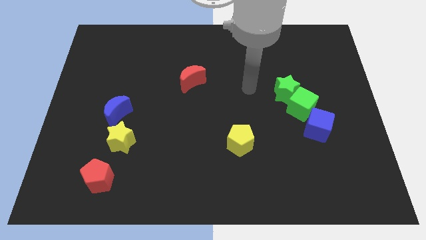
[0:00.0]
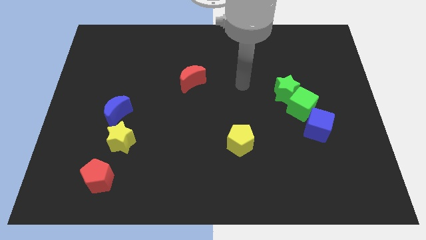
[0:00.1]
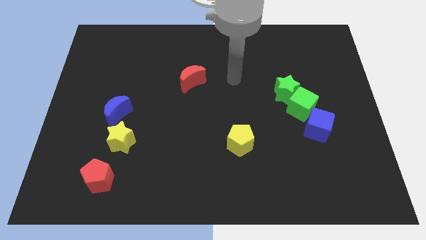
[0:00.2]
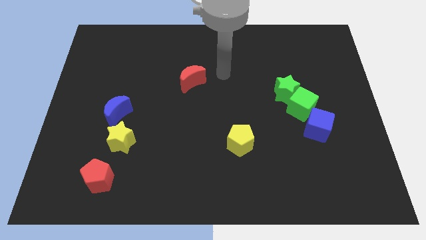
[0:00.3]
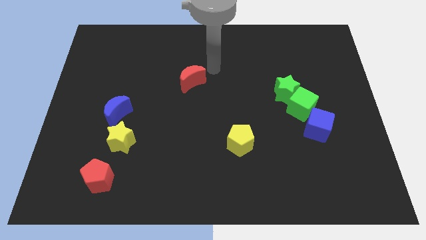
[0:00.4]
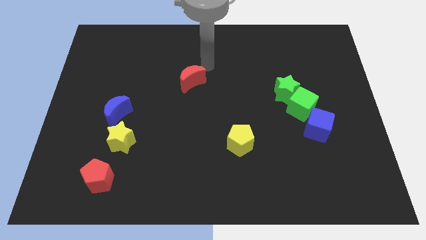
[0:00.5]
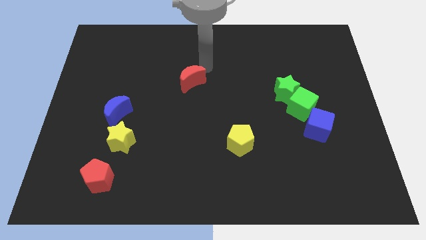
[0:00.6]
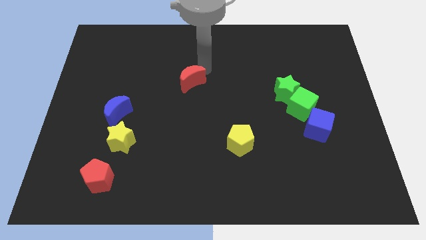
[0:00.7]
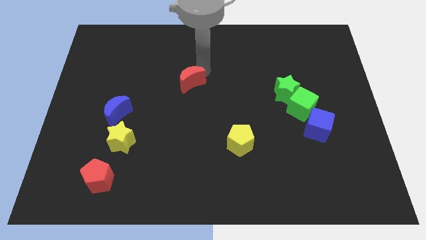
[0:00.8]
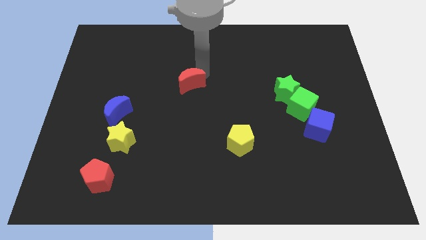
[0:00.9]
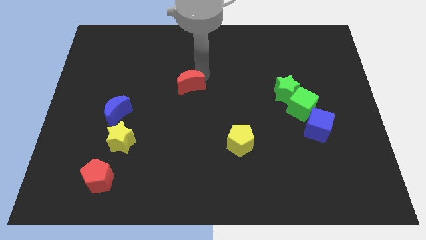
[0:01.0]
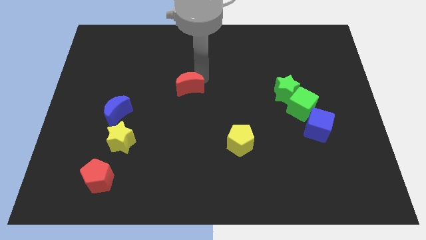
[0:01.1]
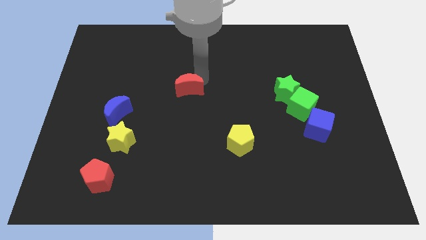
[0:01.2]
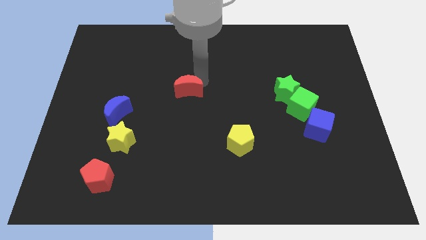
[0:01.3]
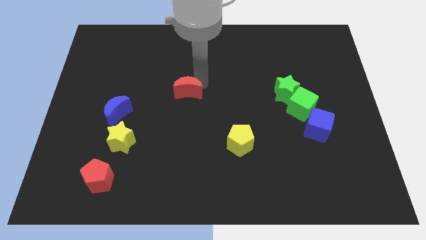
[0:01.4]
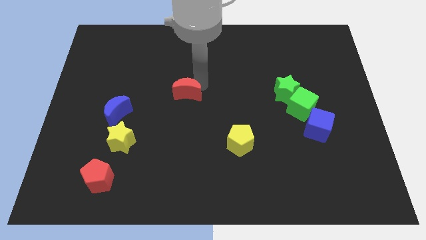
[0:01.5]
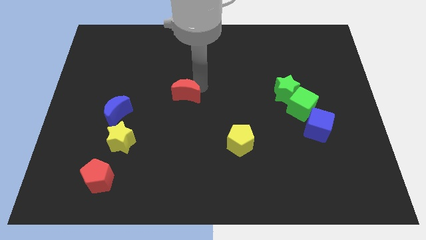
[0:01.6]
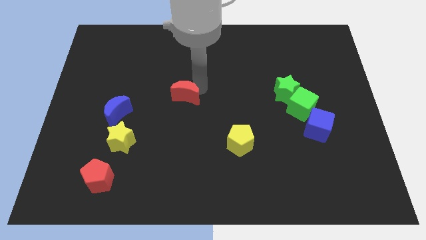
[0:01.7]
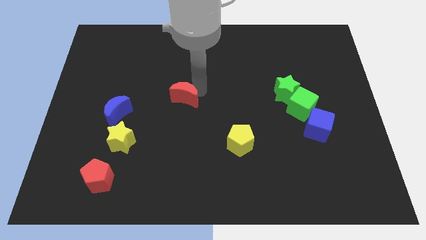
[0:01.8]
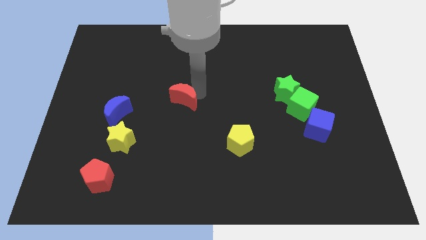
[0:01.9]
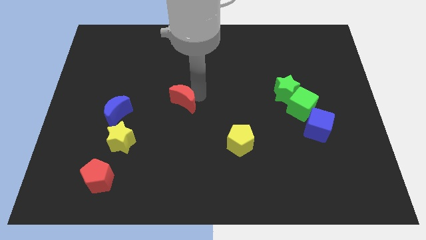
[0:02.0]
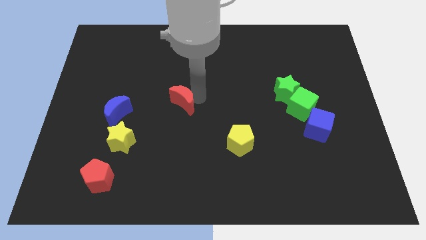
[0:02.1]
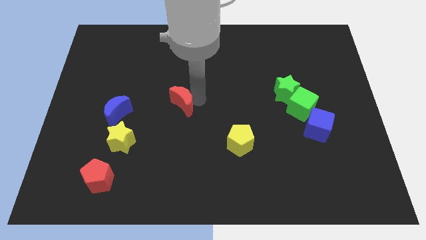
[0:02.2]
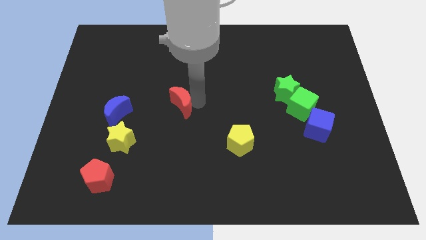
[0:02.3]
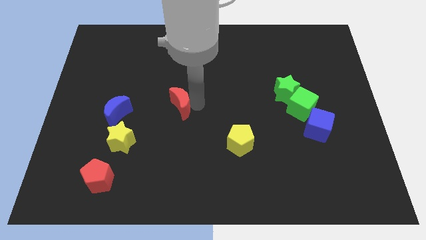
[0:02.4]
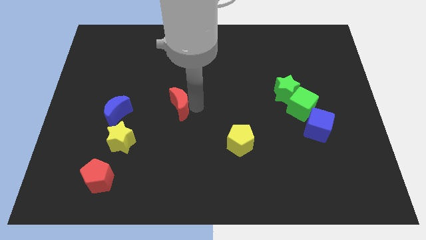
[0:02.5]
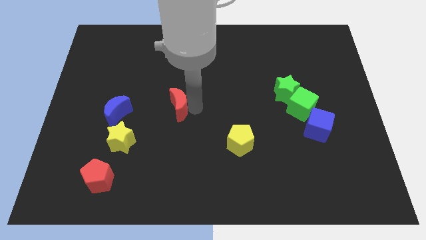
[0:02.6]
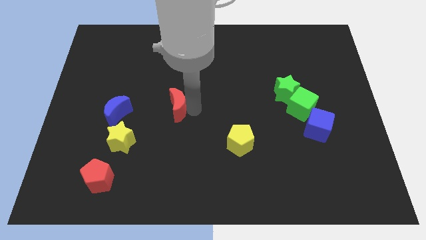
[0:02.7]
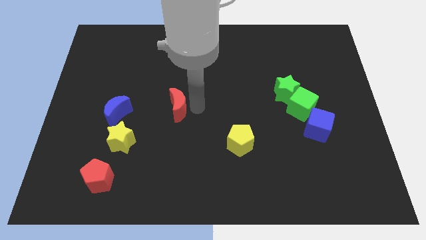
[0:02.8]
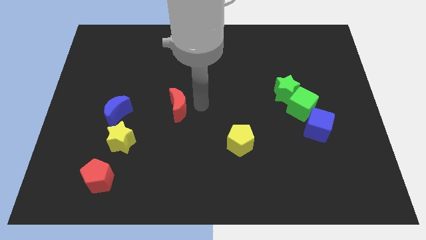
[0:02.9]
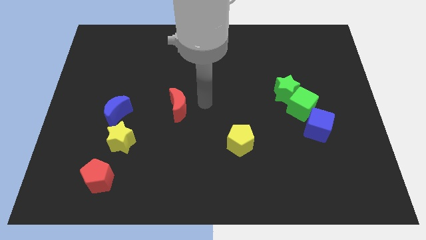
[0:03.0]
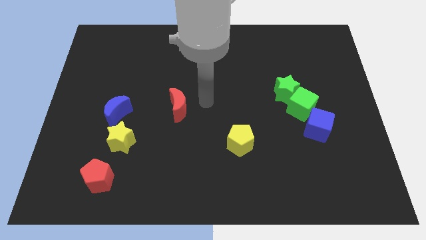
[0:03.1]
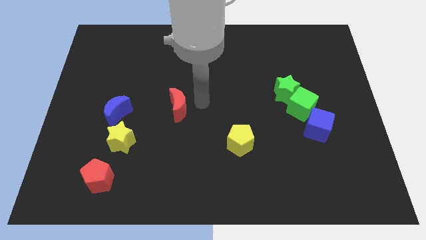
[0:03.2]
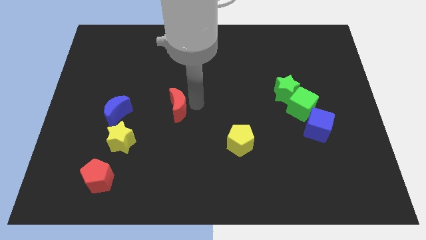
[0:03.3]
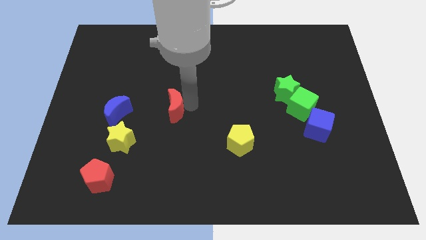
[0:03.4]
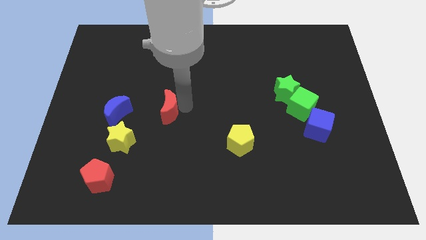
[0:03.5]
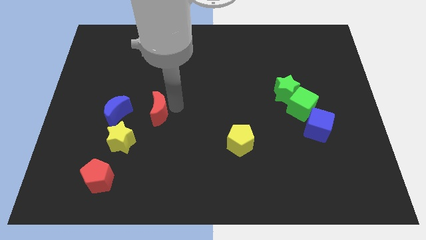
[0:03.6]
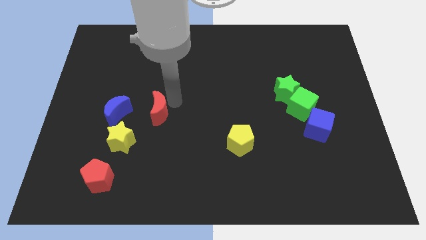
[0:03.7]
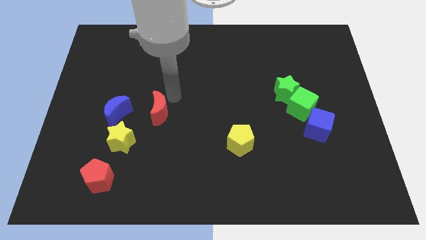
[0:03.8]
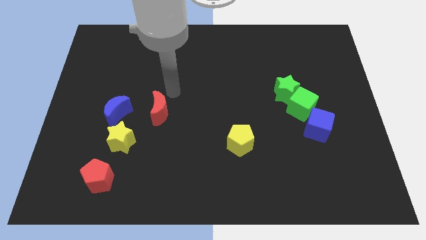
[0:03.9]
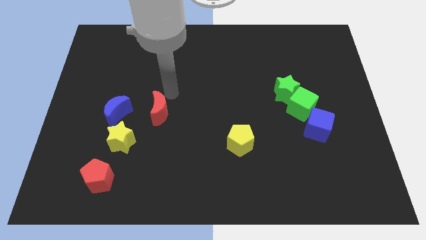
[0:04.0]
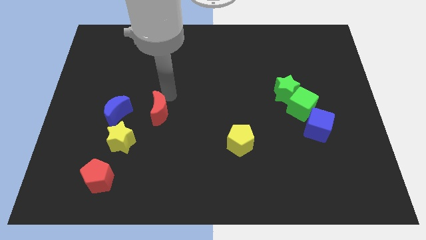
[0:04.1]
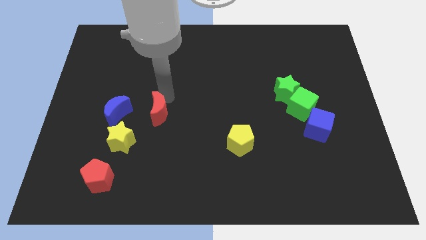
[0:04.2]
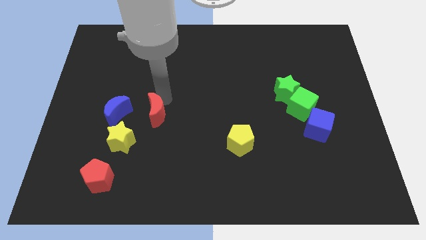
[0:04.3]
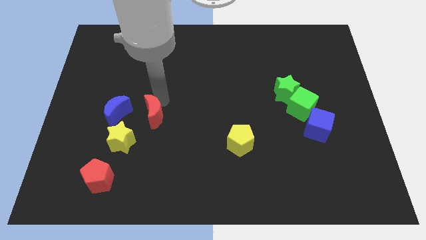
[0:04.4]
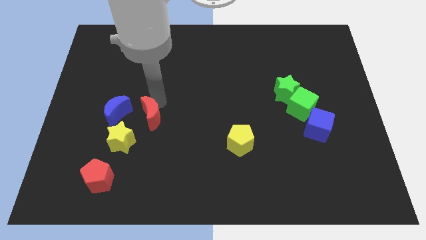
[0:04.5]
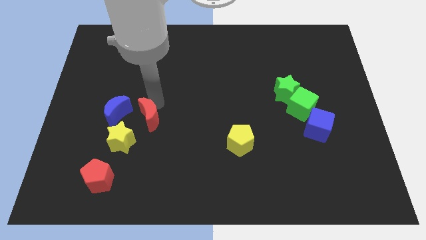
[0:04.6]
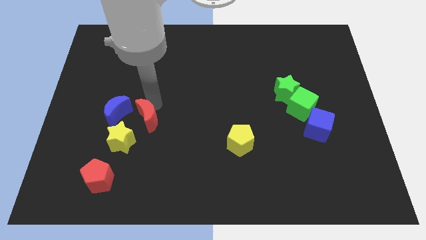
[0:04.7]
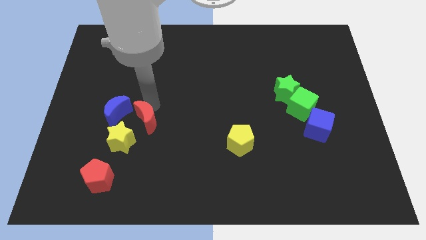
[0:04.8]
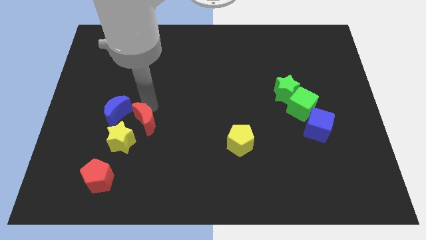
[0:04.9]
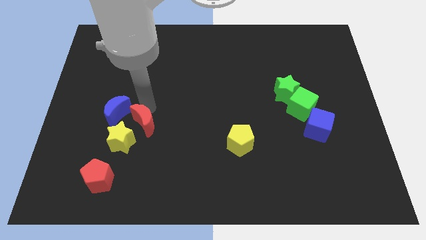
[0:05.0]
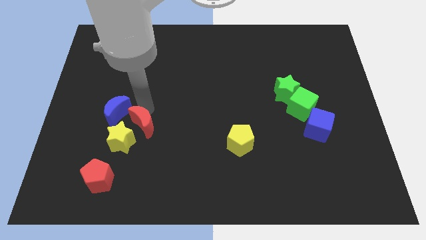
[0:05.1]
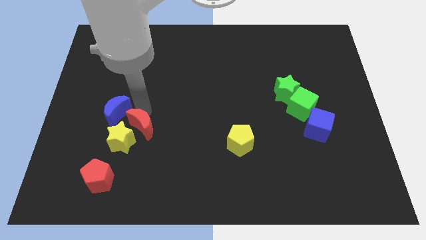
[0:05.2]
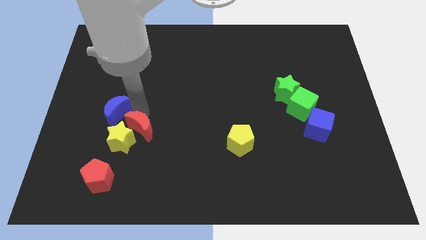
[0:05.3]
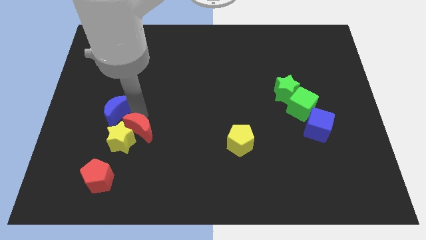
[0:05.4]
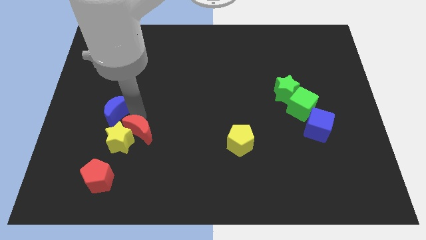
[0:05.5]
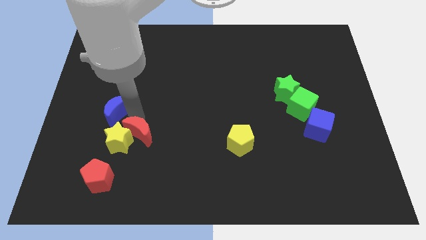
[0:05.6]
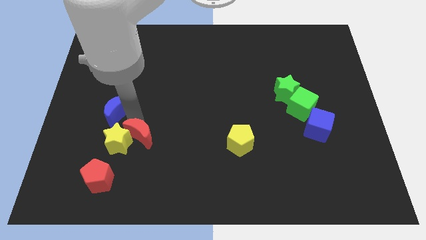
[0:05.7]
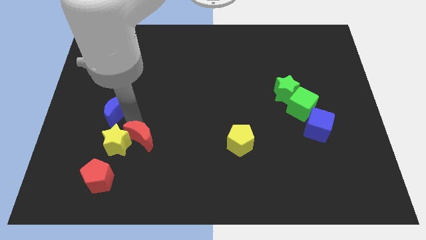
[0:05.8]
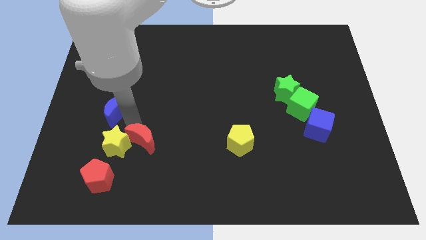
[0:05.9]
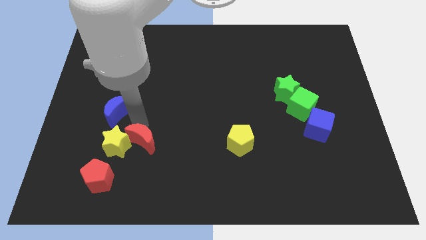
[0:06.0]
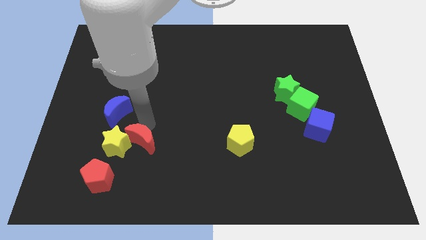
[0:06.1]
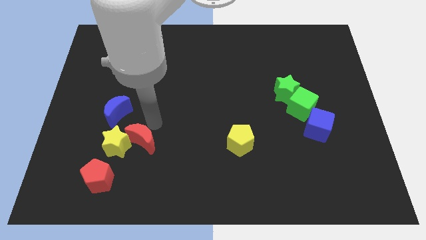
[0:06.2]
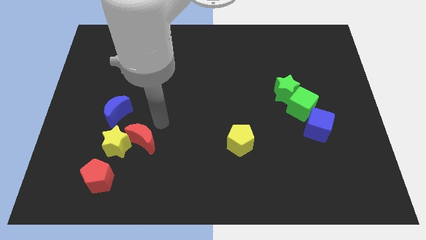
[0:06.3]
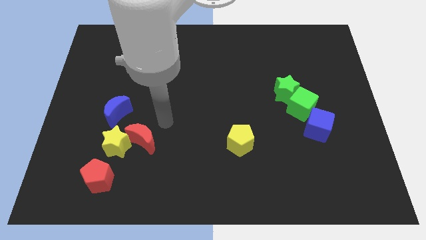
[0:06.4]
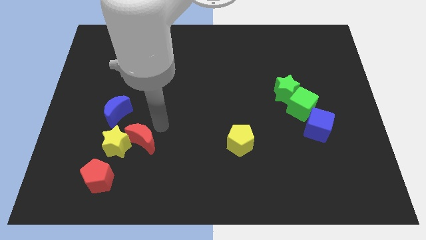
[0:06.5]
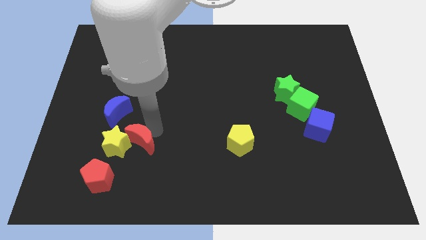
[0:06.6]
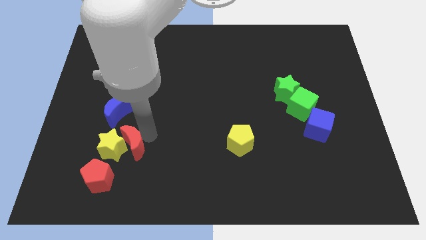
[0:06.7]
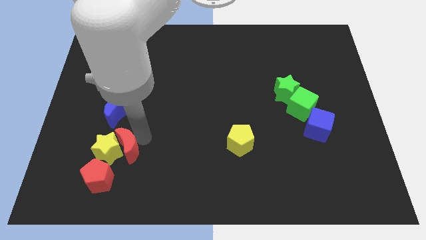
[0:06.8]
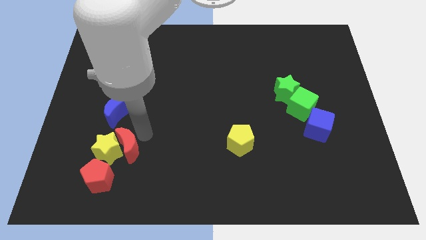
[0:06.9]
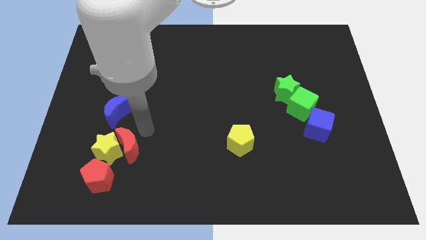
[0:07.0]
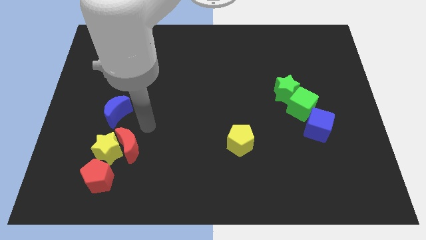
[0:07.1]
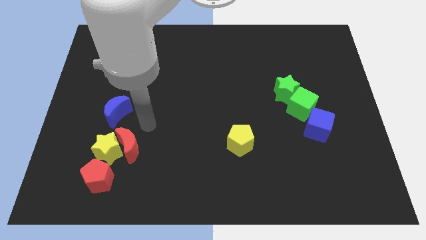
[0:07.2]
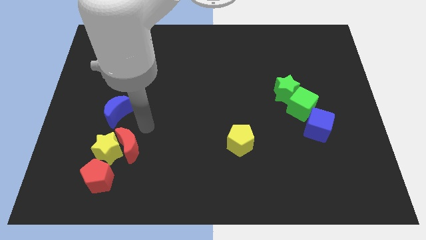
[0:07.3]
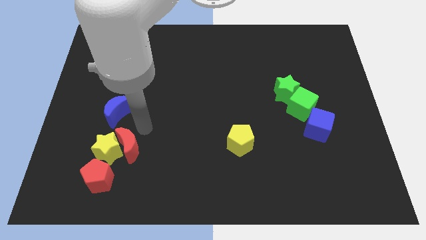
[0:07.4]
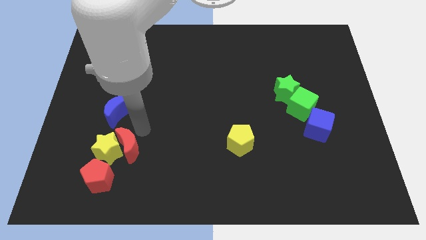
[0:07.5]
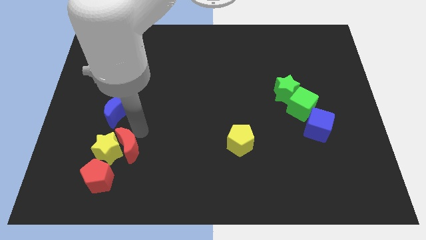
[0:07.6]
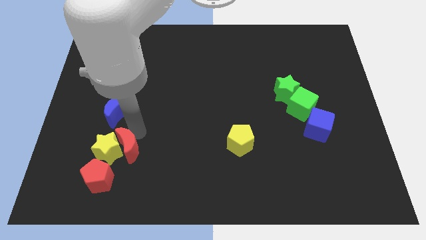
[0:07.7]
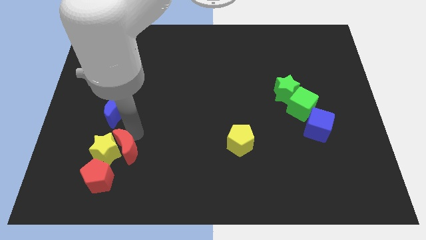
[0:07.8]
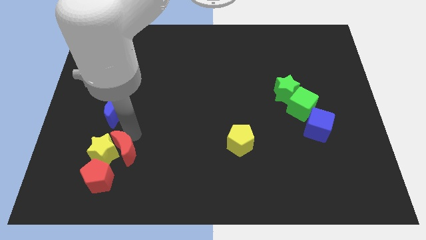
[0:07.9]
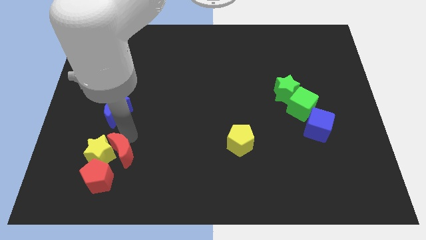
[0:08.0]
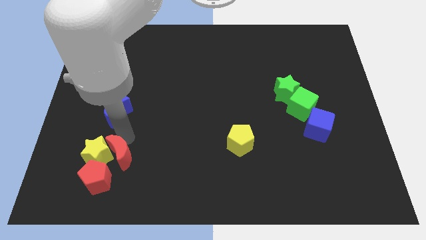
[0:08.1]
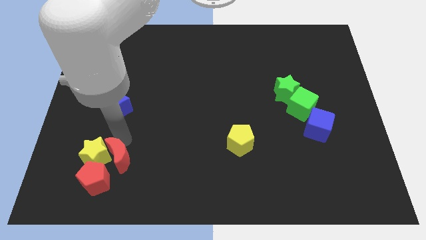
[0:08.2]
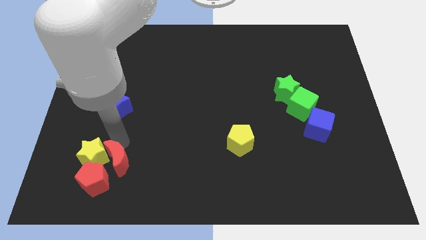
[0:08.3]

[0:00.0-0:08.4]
slide the red moon next to the red pentagon
